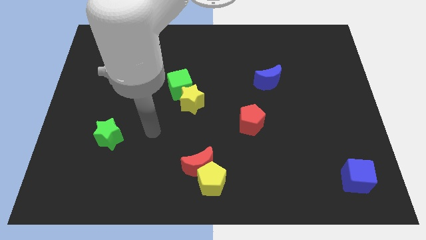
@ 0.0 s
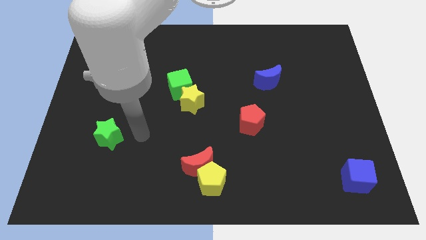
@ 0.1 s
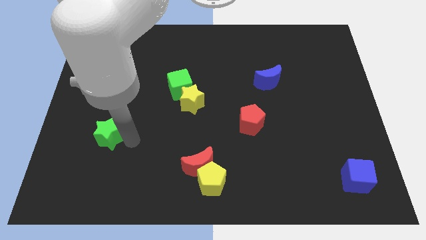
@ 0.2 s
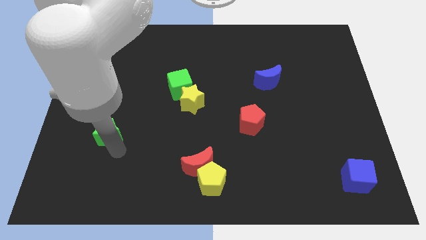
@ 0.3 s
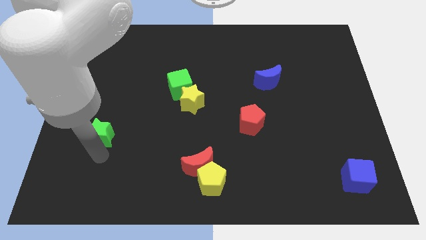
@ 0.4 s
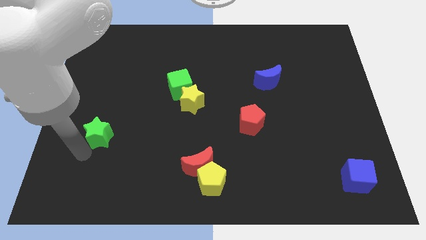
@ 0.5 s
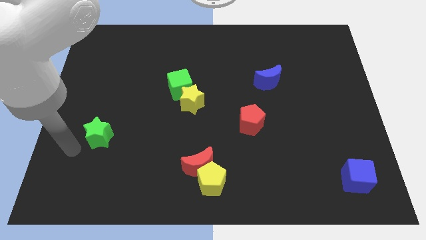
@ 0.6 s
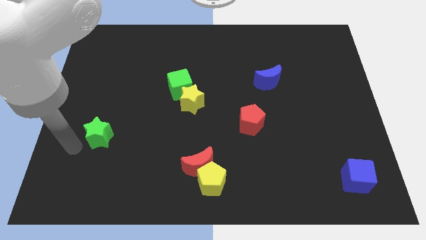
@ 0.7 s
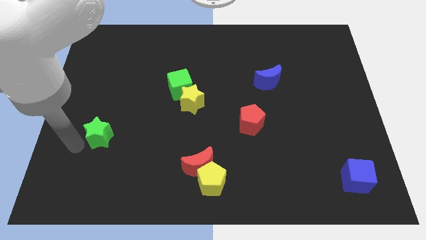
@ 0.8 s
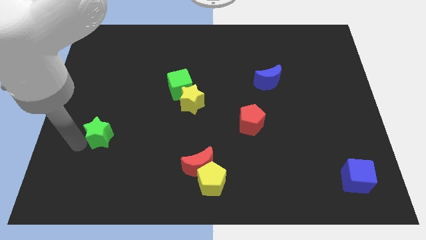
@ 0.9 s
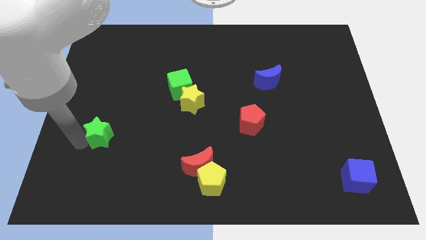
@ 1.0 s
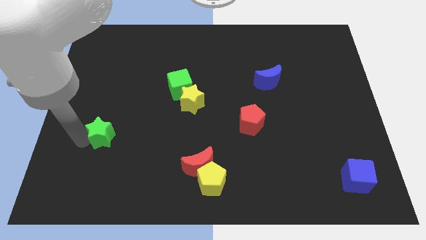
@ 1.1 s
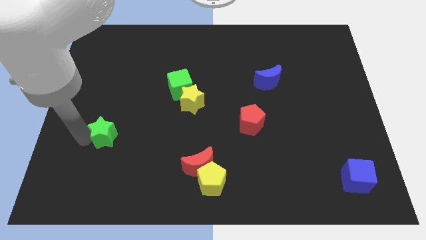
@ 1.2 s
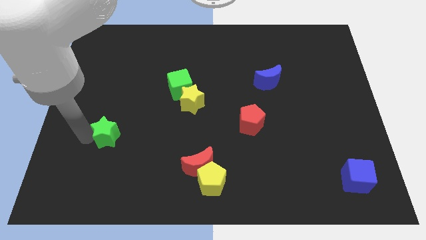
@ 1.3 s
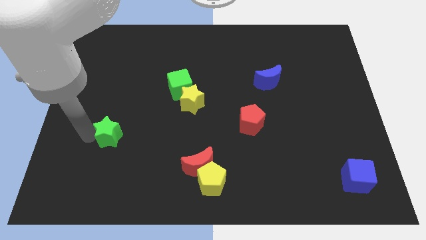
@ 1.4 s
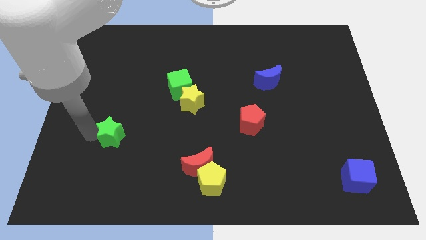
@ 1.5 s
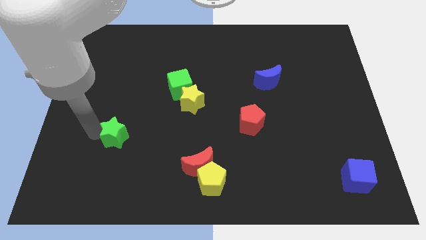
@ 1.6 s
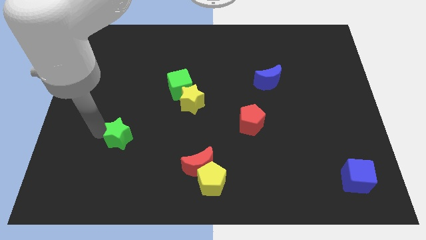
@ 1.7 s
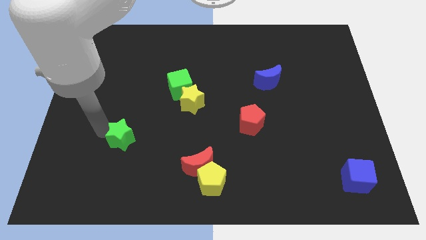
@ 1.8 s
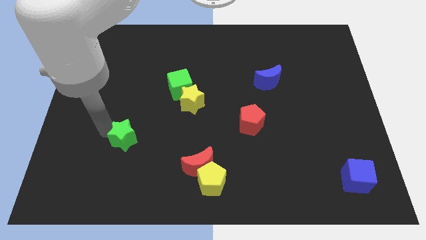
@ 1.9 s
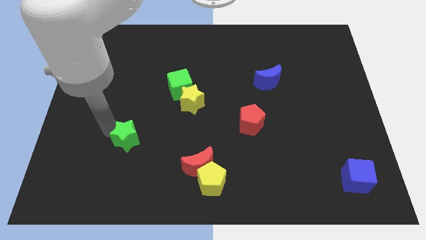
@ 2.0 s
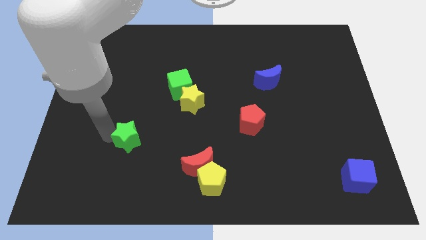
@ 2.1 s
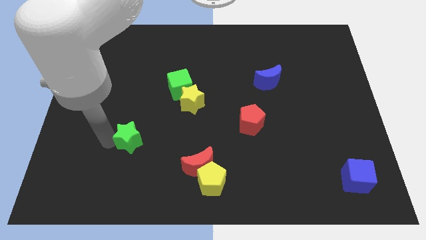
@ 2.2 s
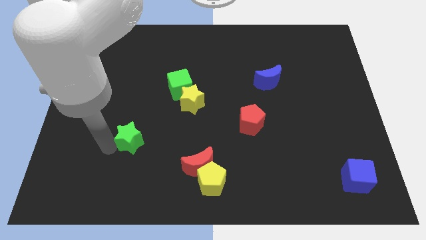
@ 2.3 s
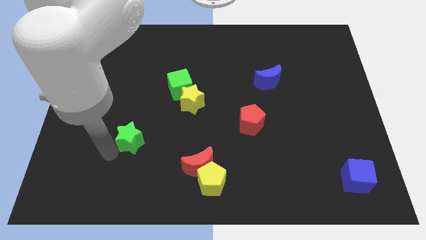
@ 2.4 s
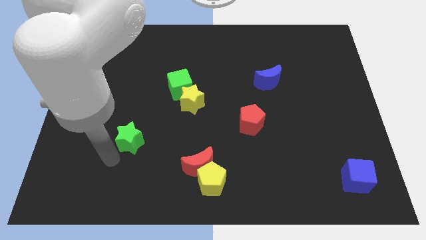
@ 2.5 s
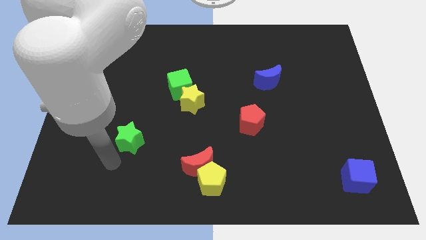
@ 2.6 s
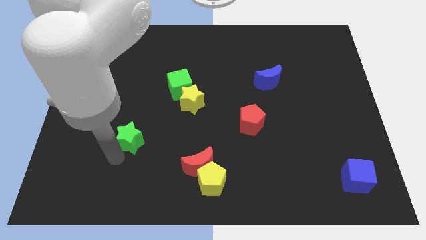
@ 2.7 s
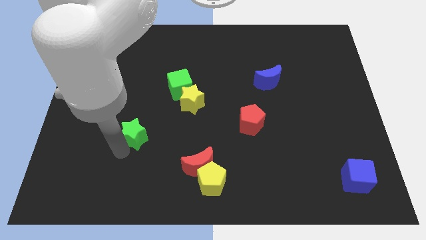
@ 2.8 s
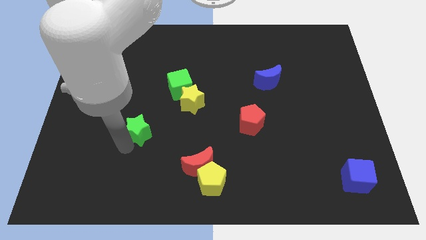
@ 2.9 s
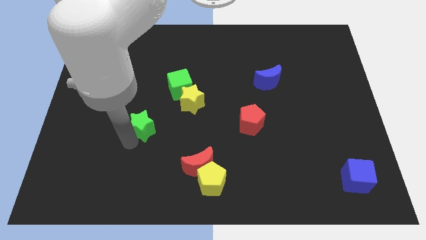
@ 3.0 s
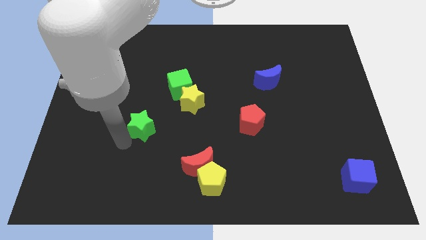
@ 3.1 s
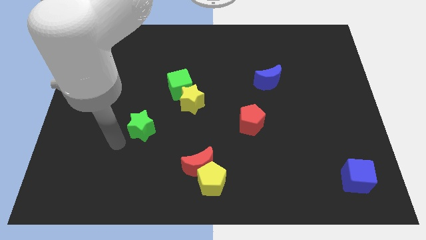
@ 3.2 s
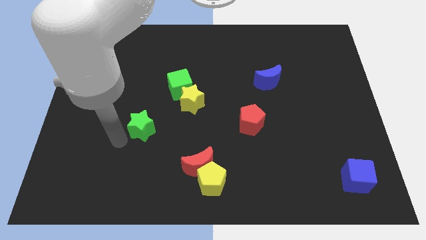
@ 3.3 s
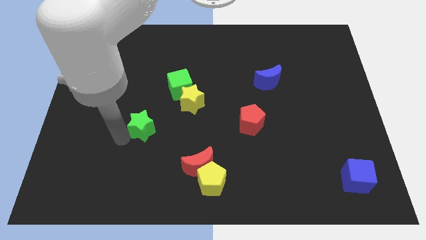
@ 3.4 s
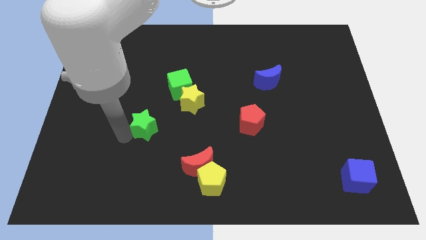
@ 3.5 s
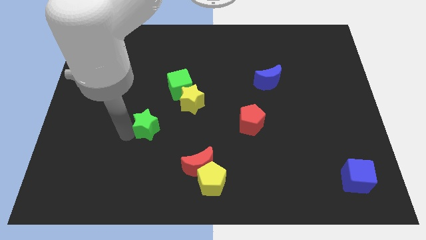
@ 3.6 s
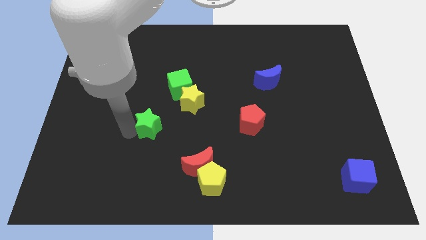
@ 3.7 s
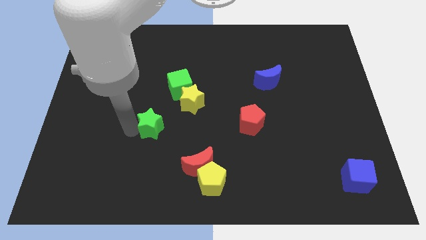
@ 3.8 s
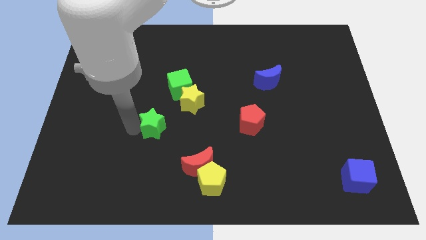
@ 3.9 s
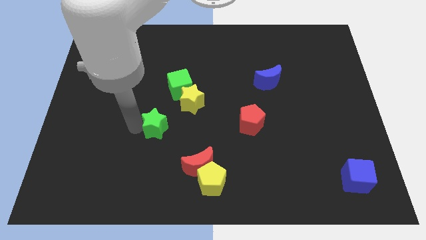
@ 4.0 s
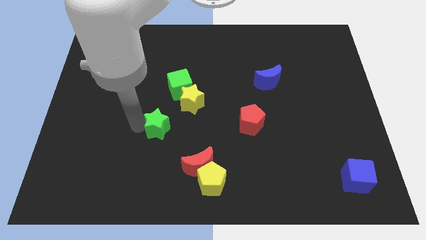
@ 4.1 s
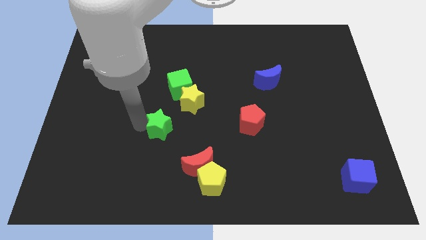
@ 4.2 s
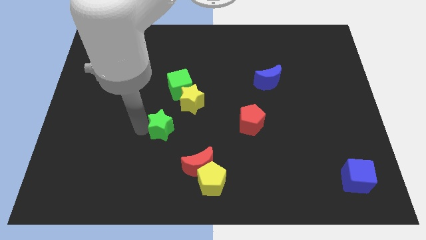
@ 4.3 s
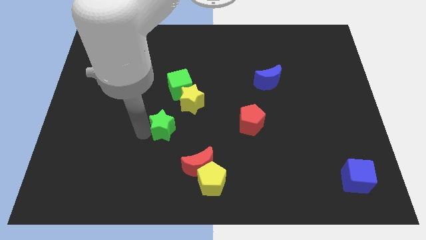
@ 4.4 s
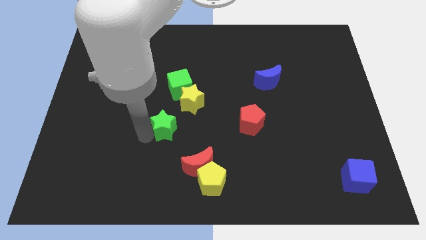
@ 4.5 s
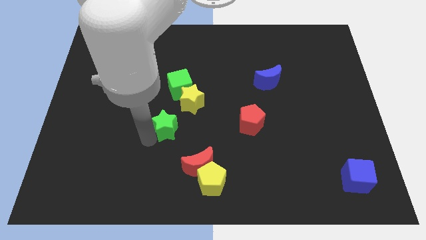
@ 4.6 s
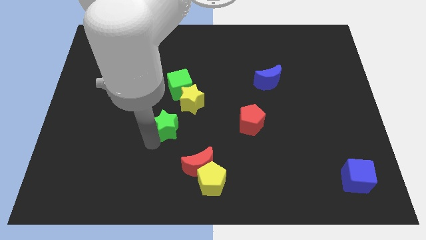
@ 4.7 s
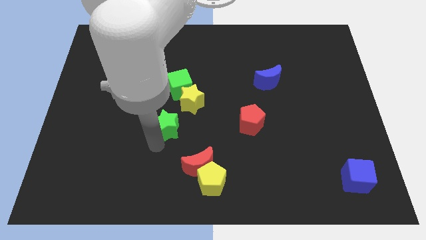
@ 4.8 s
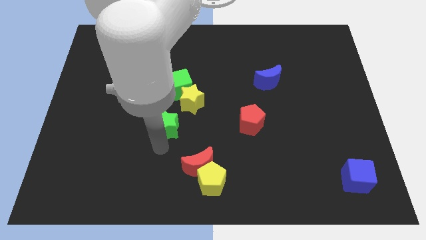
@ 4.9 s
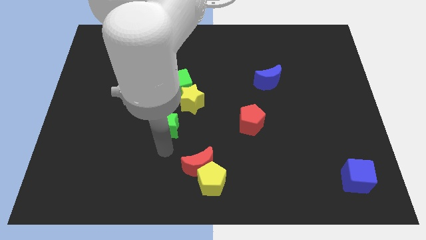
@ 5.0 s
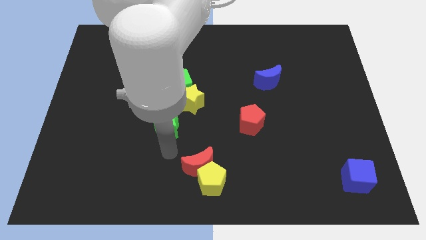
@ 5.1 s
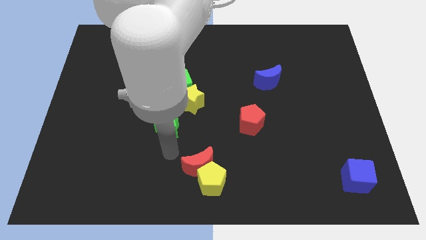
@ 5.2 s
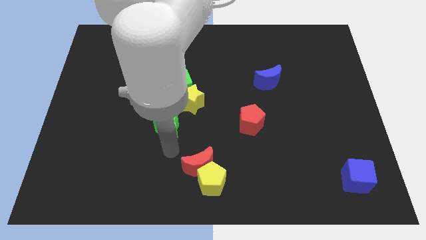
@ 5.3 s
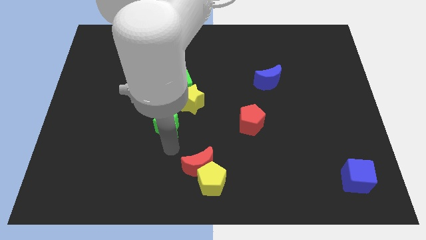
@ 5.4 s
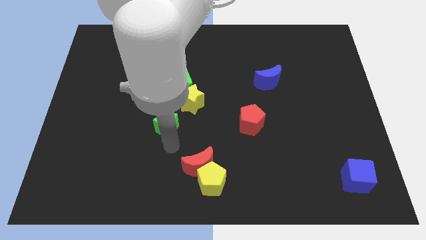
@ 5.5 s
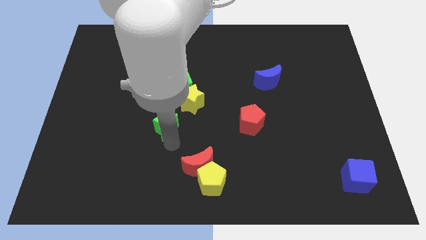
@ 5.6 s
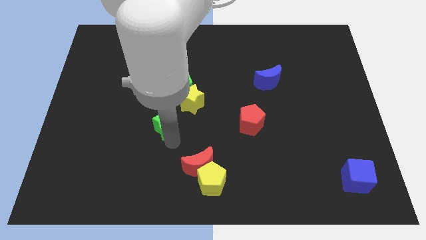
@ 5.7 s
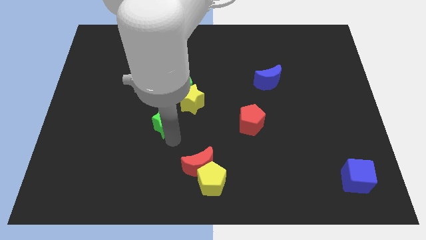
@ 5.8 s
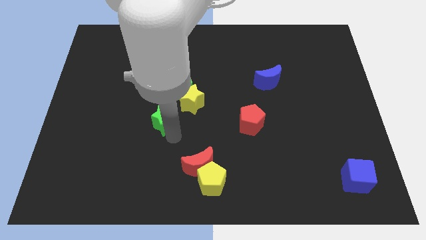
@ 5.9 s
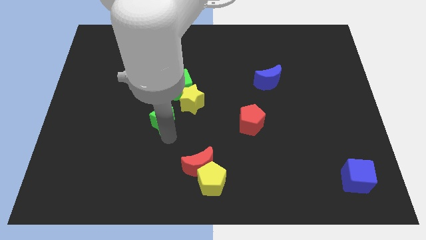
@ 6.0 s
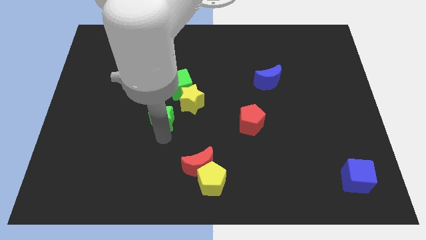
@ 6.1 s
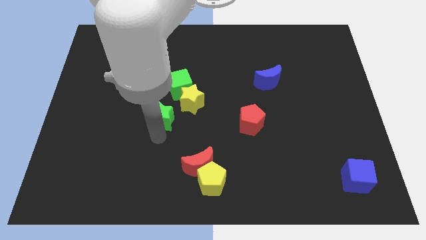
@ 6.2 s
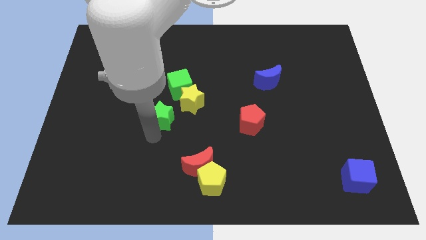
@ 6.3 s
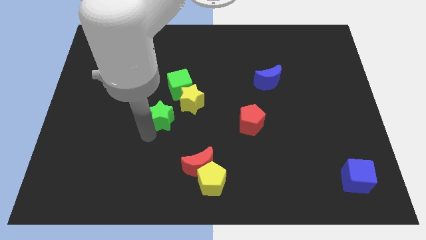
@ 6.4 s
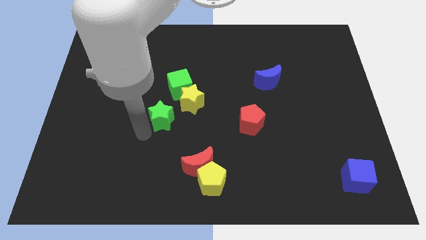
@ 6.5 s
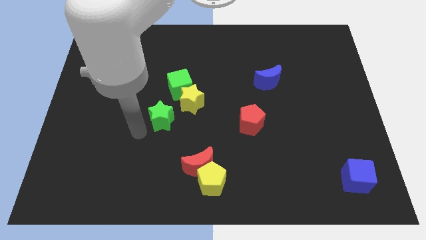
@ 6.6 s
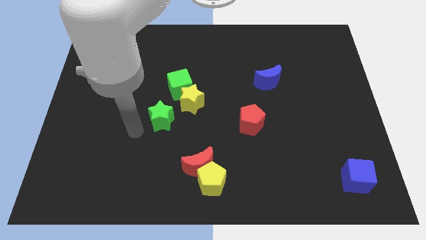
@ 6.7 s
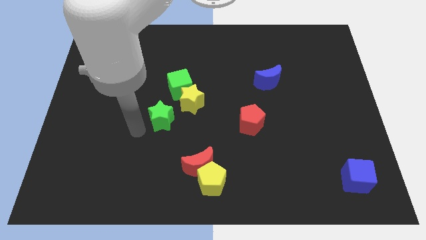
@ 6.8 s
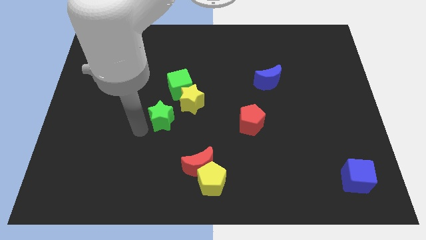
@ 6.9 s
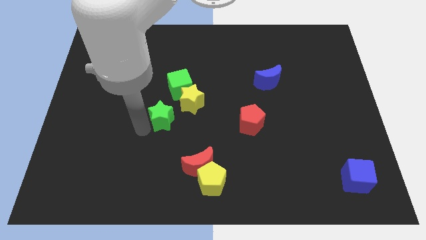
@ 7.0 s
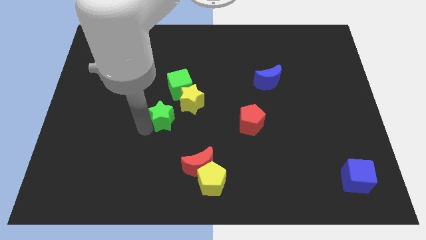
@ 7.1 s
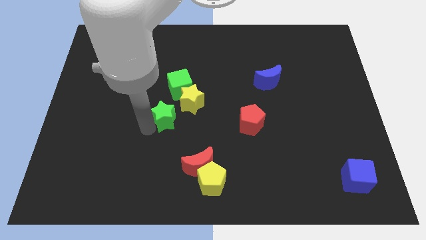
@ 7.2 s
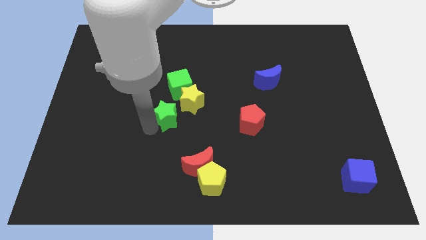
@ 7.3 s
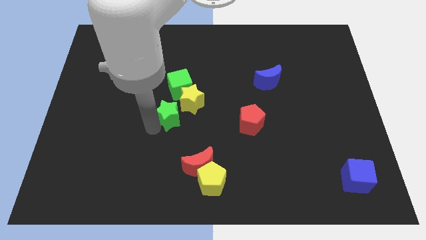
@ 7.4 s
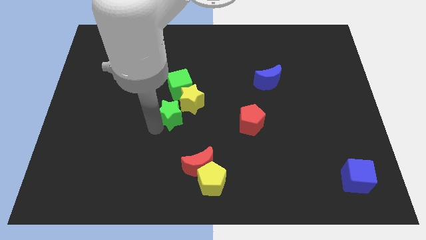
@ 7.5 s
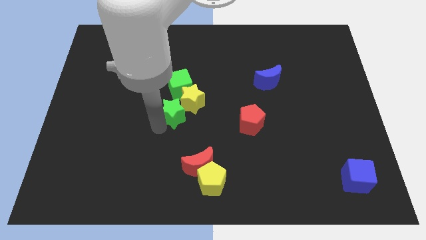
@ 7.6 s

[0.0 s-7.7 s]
move the green star close to the yellow star

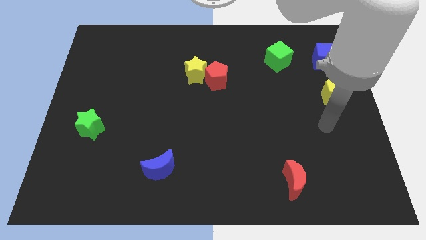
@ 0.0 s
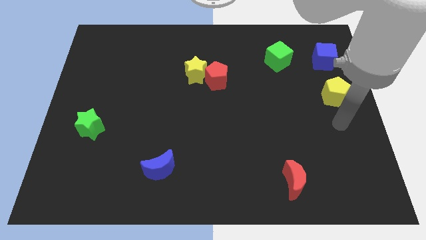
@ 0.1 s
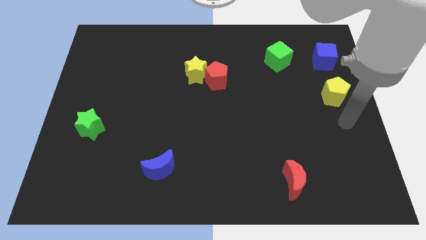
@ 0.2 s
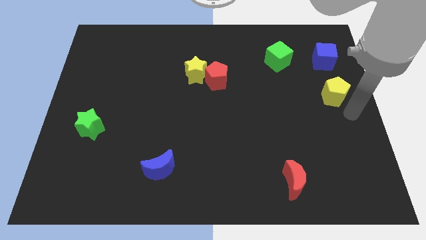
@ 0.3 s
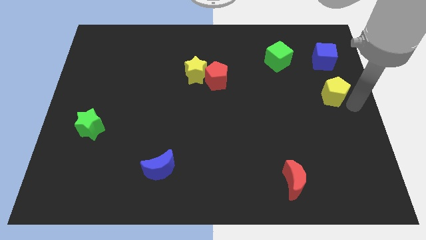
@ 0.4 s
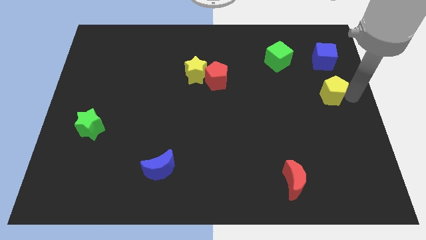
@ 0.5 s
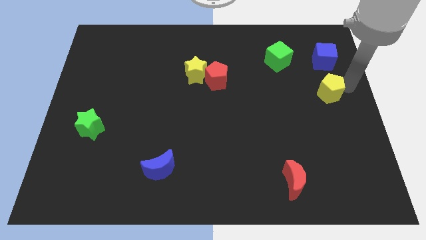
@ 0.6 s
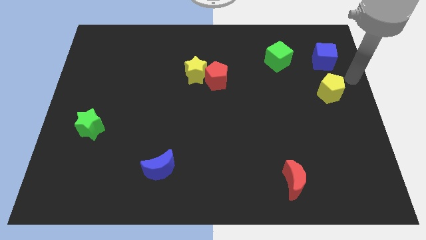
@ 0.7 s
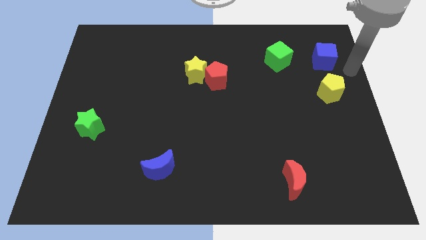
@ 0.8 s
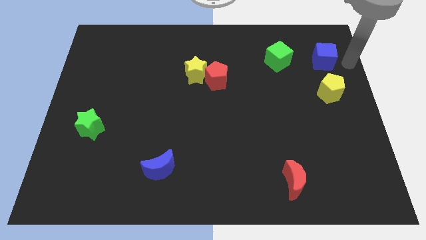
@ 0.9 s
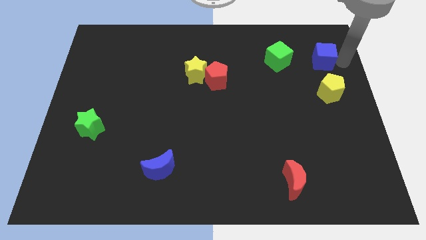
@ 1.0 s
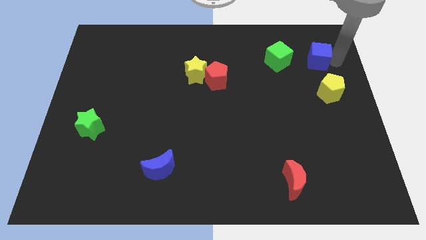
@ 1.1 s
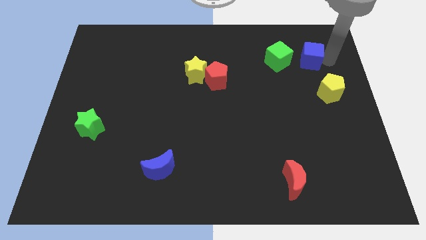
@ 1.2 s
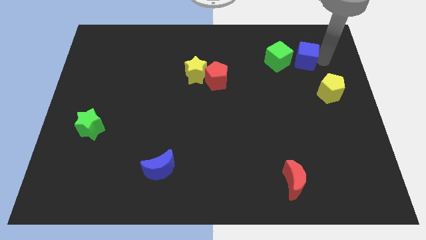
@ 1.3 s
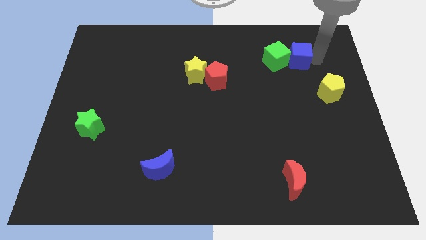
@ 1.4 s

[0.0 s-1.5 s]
push the blue cube towards the green cube
